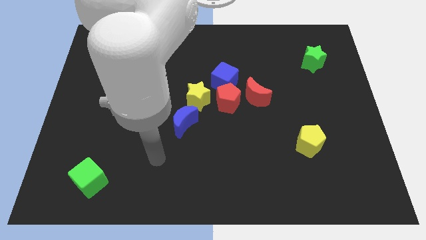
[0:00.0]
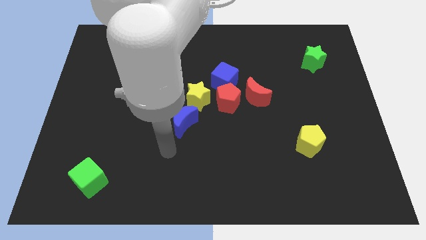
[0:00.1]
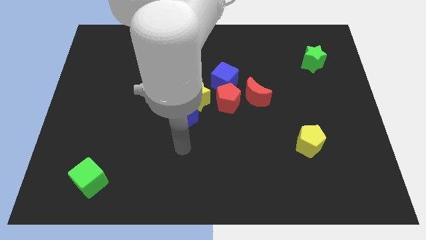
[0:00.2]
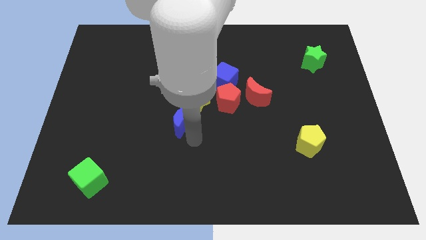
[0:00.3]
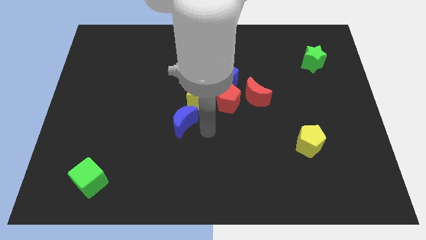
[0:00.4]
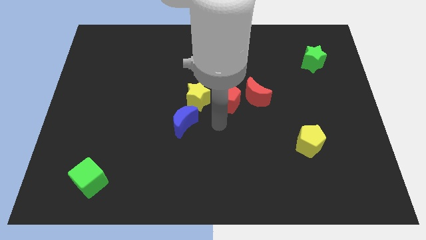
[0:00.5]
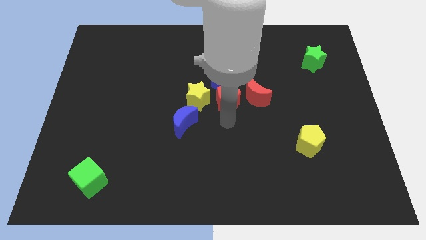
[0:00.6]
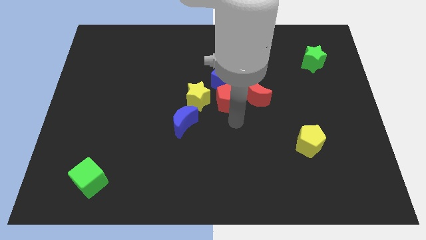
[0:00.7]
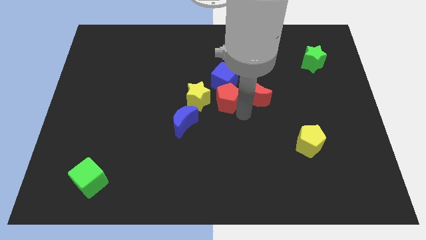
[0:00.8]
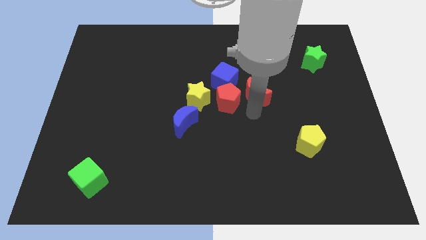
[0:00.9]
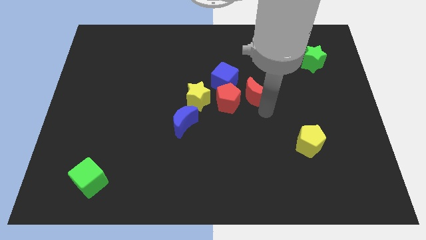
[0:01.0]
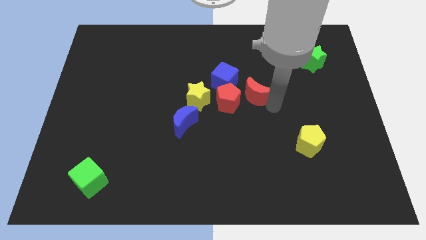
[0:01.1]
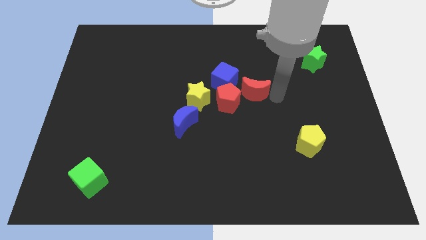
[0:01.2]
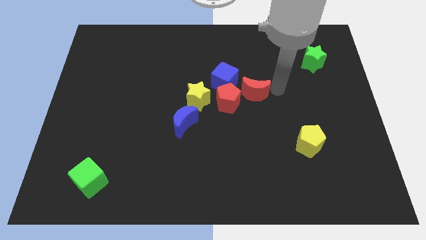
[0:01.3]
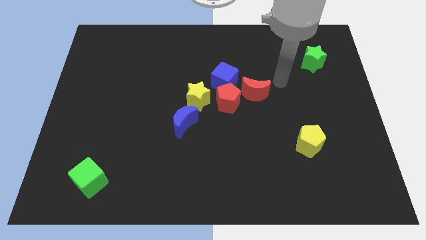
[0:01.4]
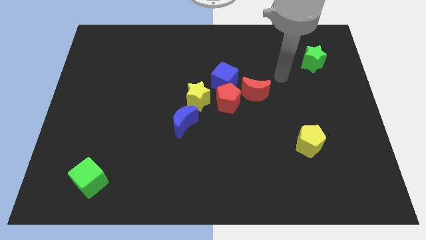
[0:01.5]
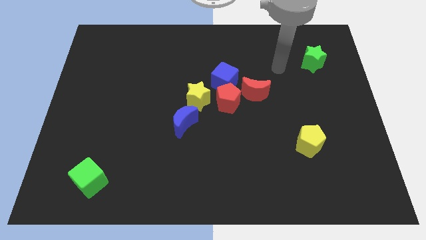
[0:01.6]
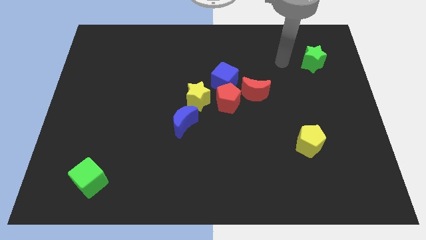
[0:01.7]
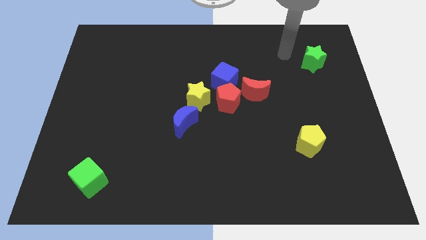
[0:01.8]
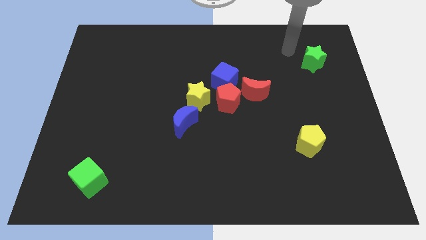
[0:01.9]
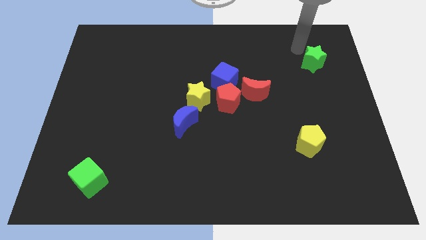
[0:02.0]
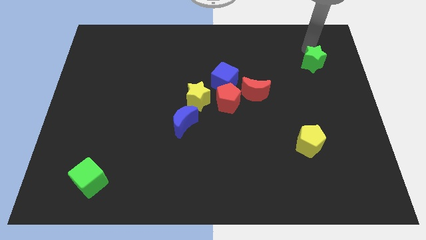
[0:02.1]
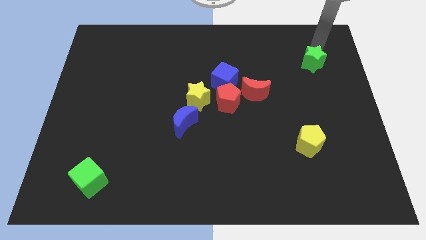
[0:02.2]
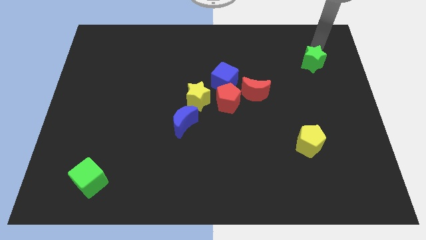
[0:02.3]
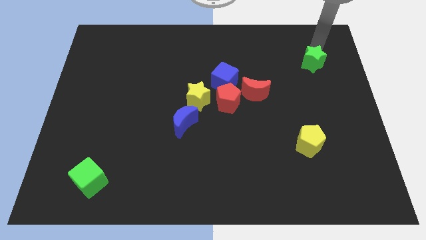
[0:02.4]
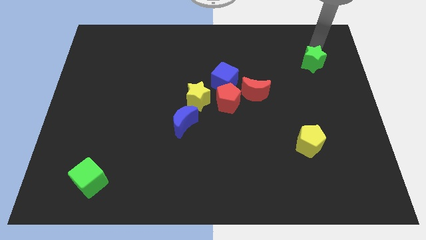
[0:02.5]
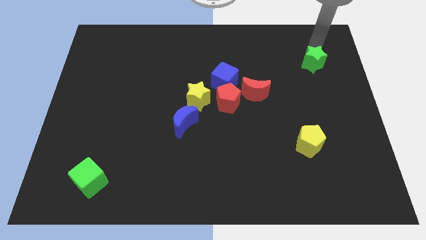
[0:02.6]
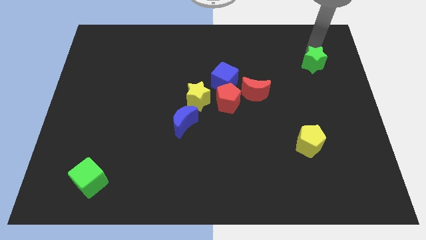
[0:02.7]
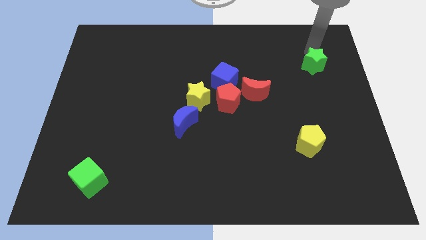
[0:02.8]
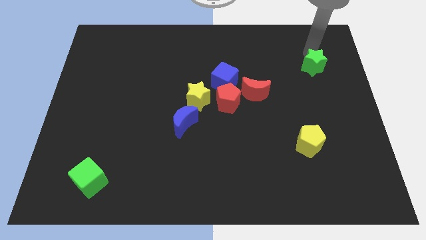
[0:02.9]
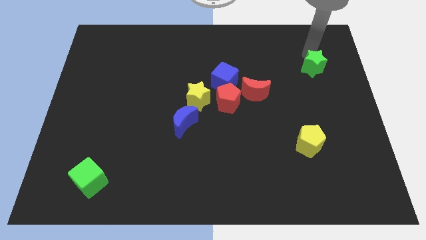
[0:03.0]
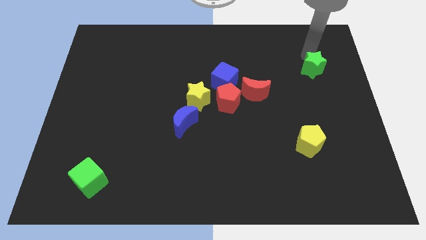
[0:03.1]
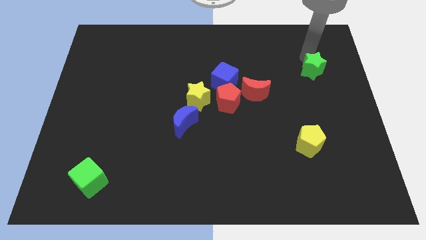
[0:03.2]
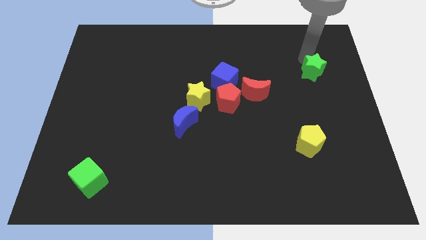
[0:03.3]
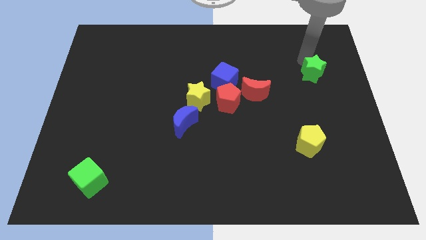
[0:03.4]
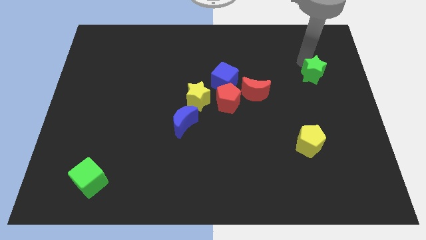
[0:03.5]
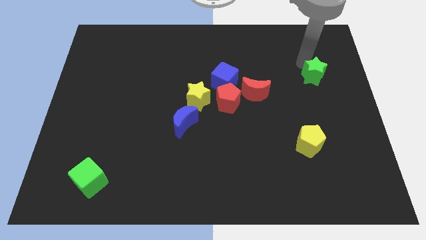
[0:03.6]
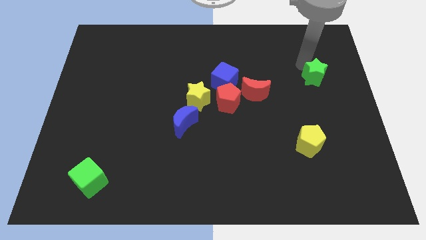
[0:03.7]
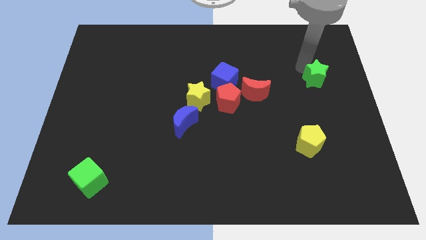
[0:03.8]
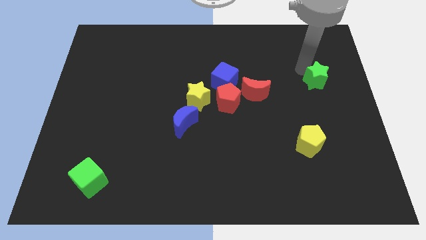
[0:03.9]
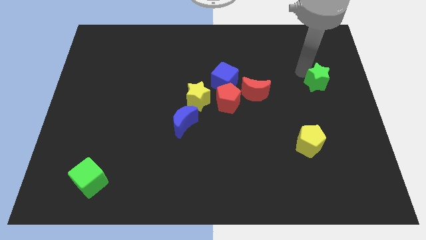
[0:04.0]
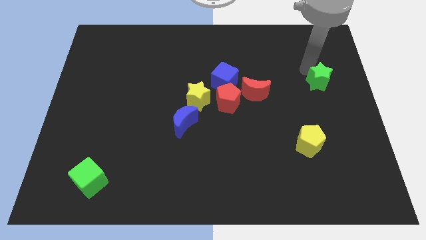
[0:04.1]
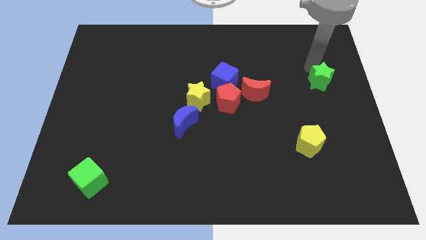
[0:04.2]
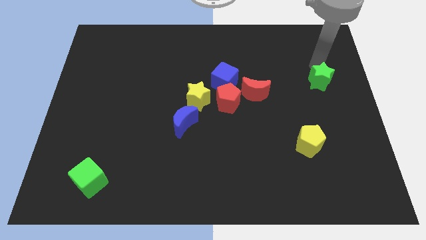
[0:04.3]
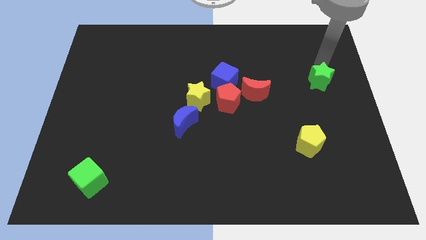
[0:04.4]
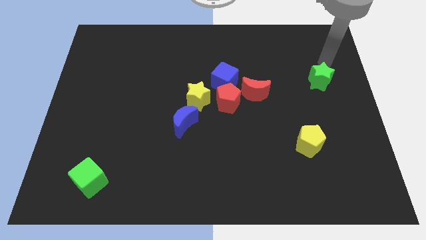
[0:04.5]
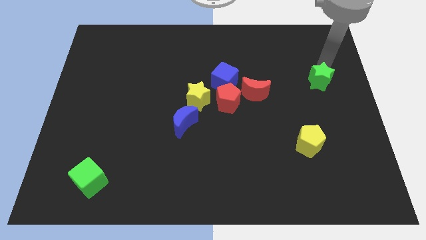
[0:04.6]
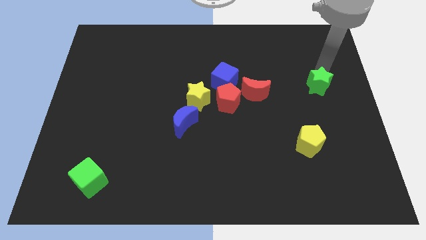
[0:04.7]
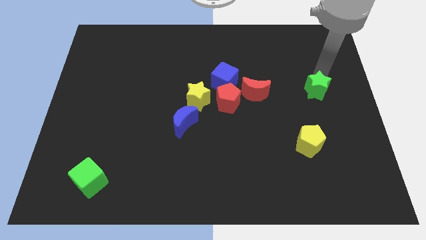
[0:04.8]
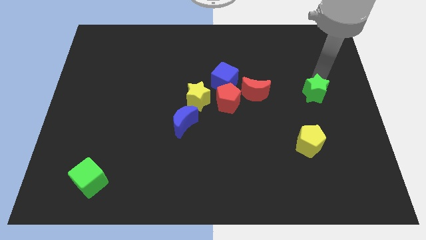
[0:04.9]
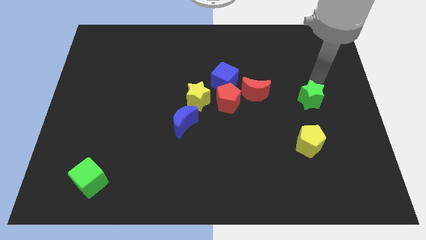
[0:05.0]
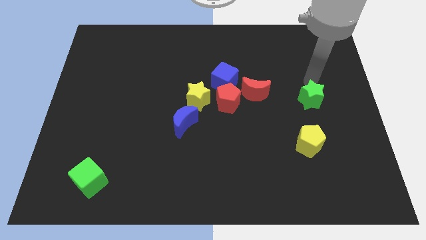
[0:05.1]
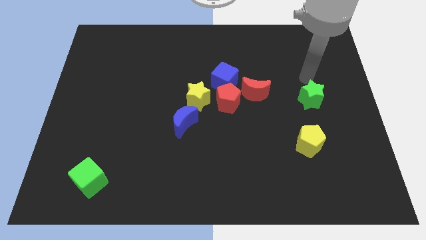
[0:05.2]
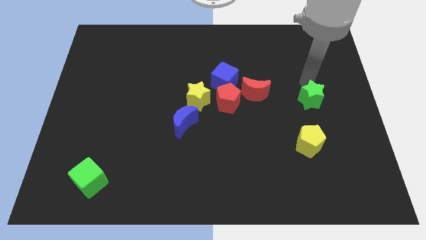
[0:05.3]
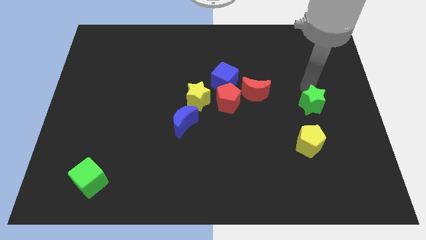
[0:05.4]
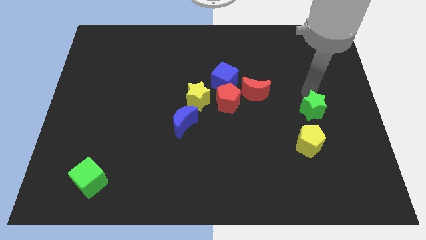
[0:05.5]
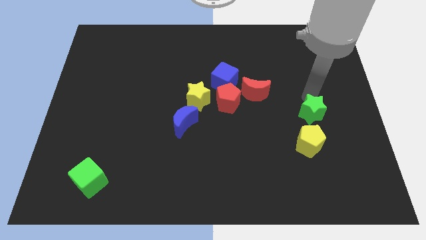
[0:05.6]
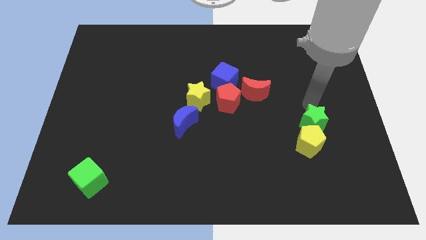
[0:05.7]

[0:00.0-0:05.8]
slide the green star to the yellow pentagon

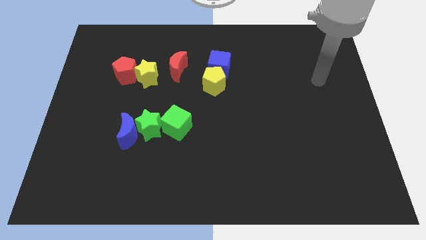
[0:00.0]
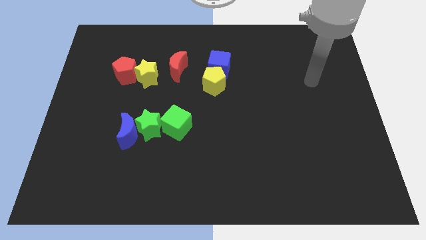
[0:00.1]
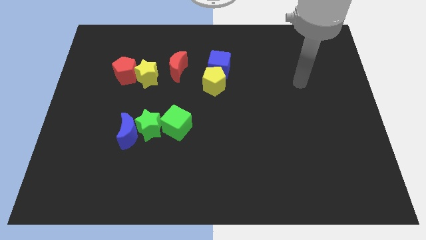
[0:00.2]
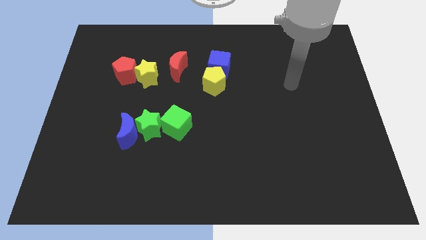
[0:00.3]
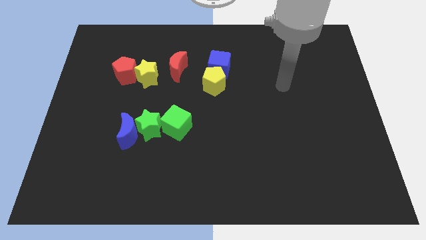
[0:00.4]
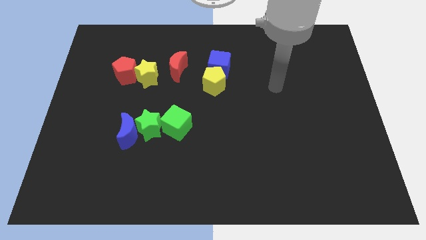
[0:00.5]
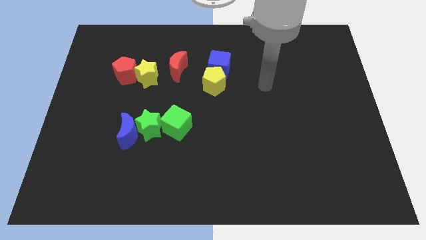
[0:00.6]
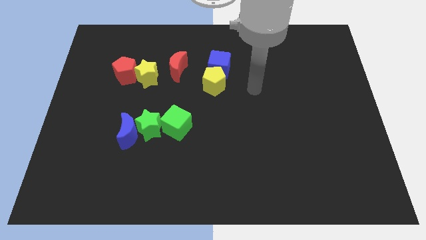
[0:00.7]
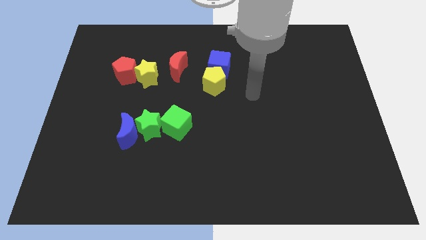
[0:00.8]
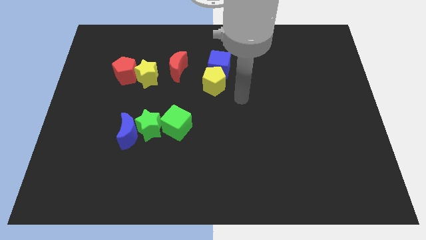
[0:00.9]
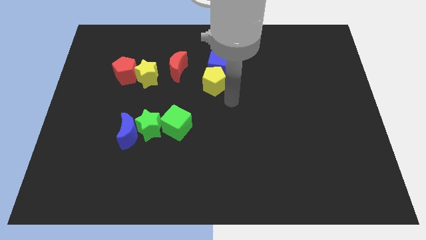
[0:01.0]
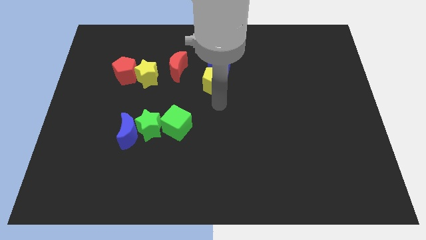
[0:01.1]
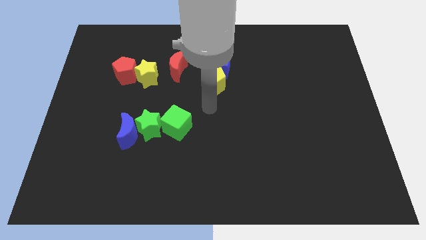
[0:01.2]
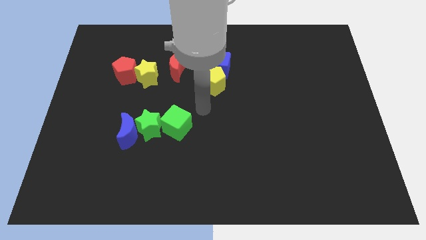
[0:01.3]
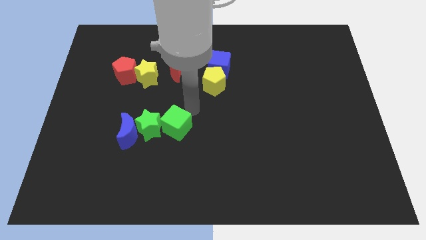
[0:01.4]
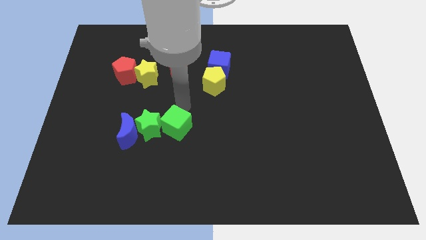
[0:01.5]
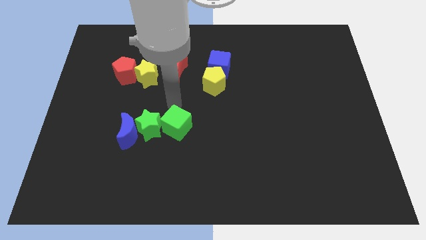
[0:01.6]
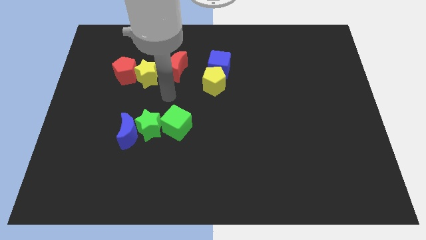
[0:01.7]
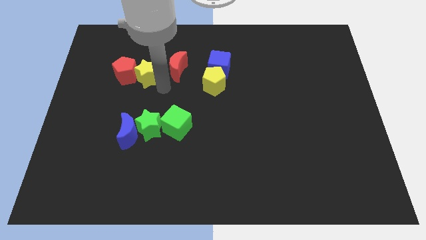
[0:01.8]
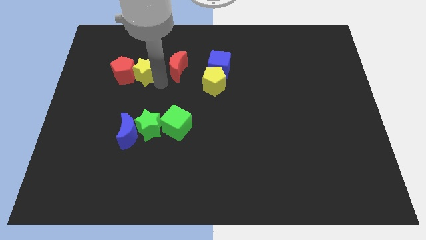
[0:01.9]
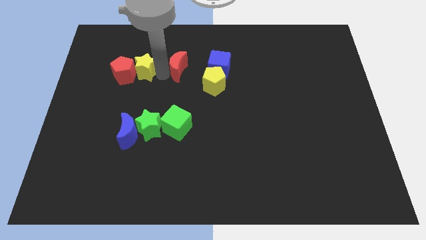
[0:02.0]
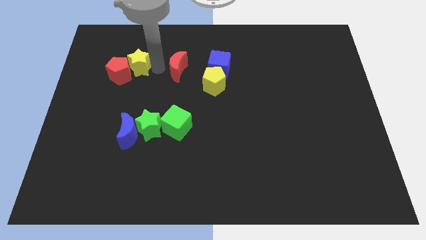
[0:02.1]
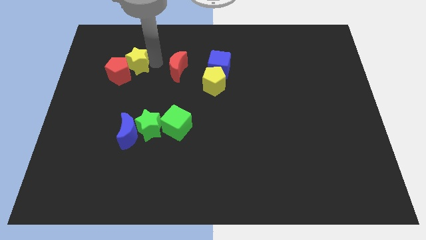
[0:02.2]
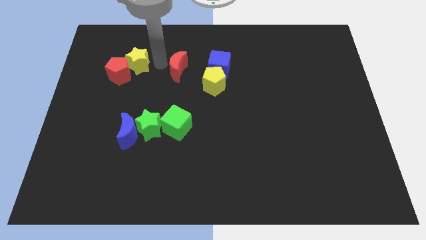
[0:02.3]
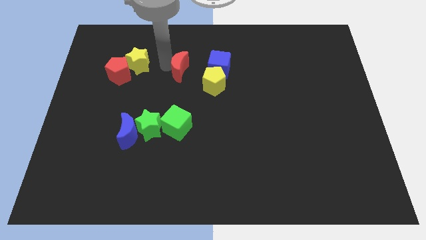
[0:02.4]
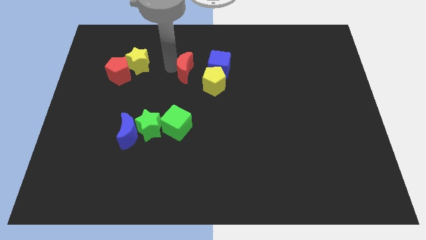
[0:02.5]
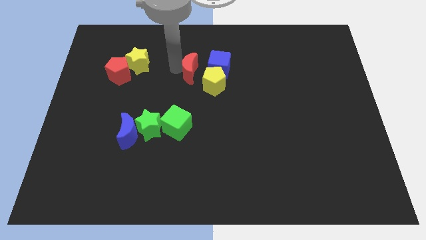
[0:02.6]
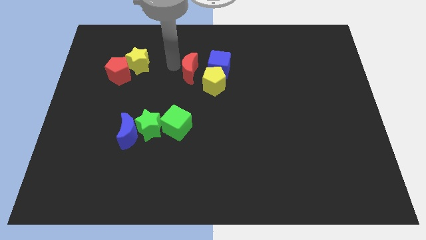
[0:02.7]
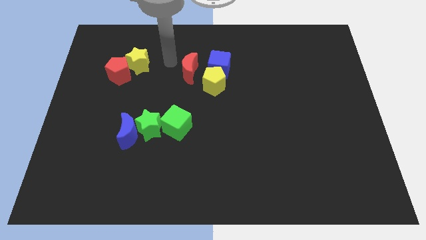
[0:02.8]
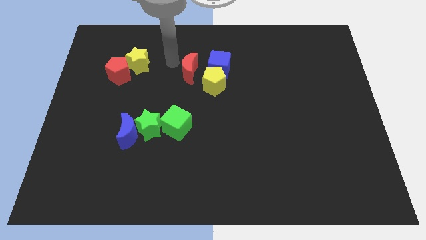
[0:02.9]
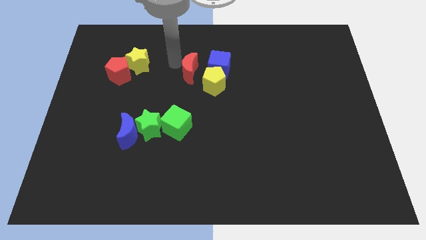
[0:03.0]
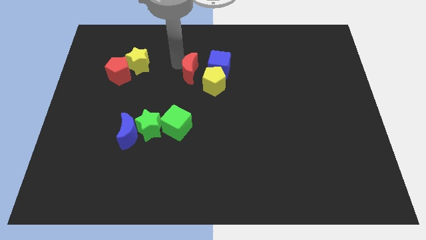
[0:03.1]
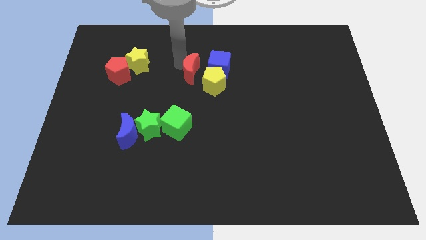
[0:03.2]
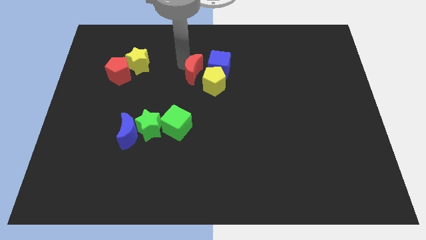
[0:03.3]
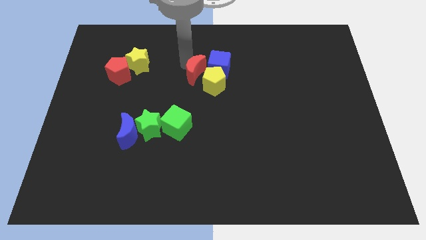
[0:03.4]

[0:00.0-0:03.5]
move the red moon next to the yellow pentagon
